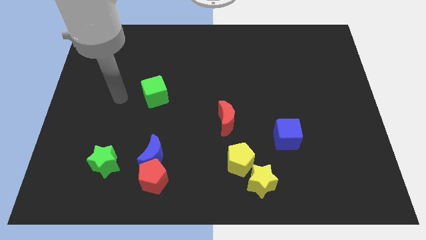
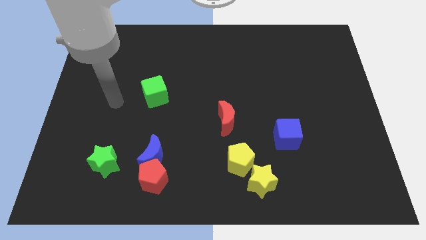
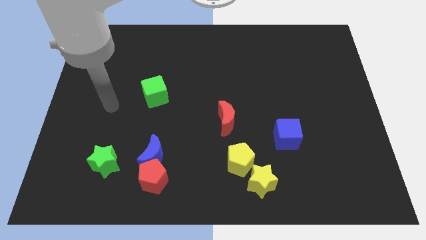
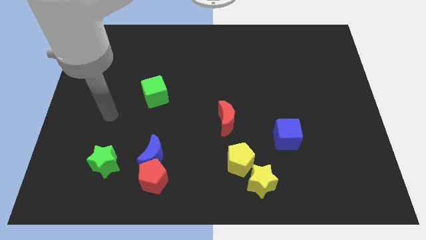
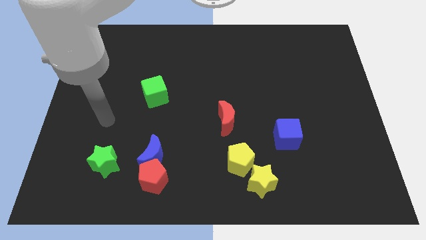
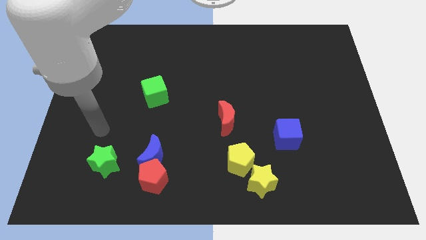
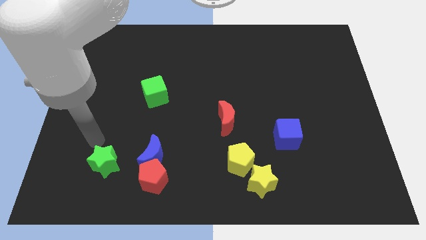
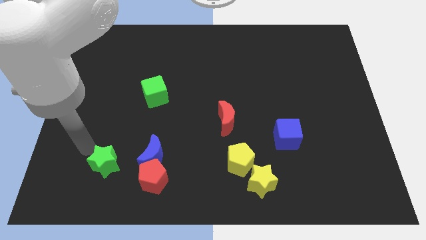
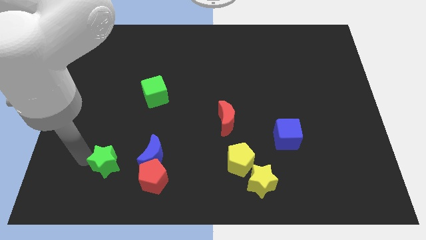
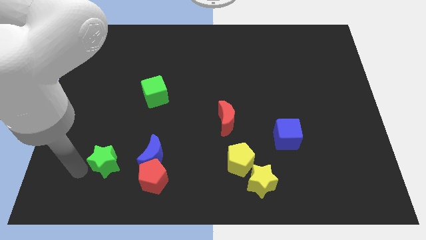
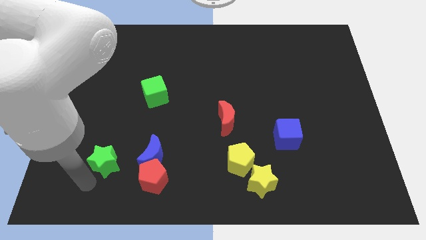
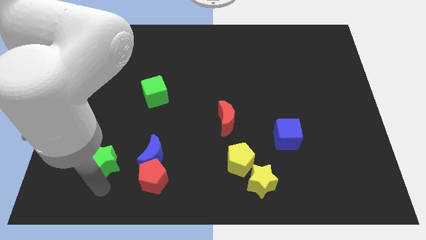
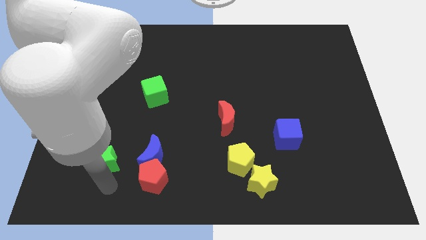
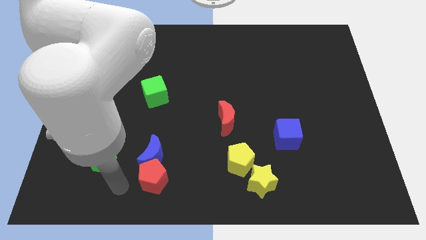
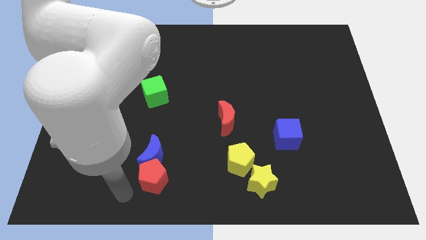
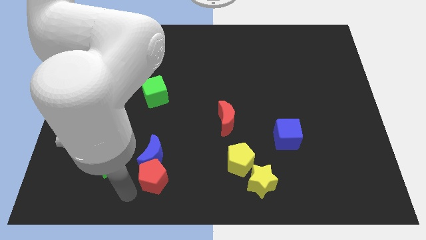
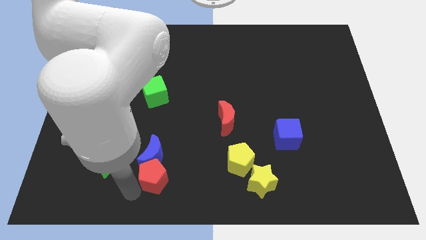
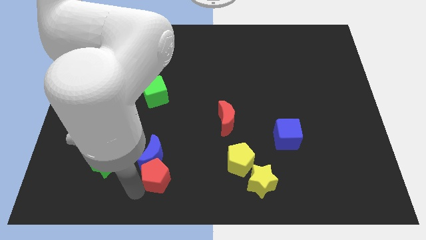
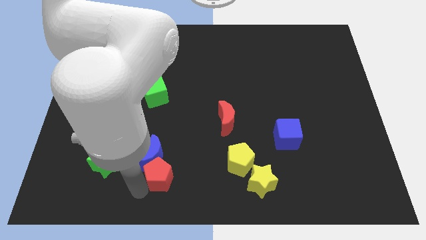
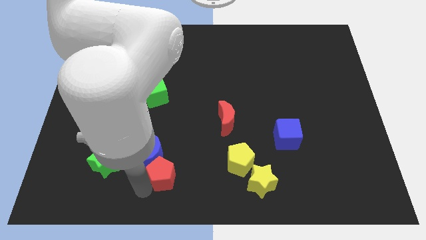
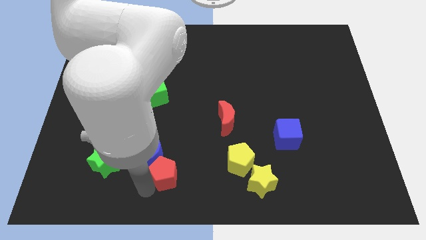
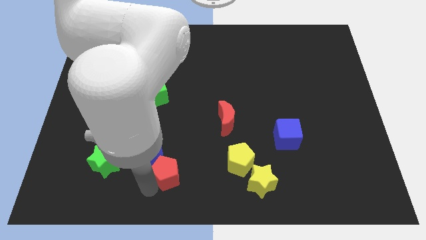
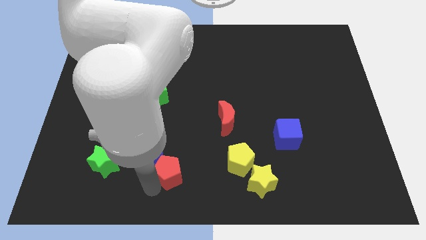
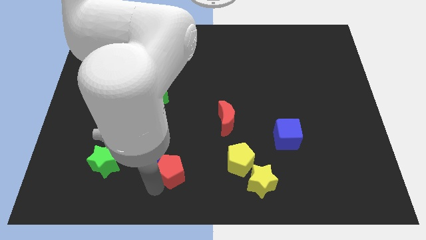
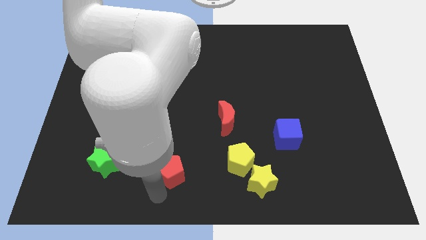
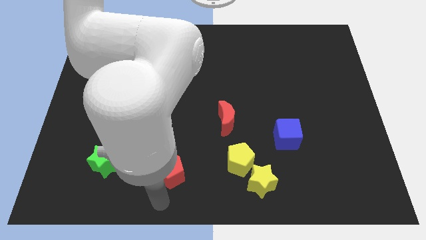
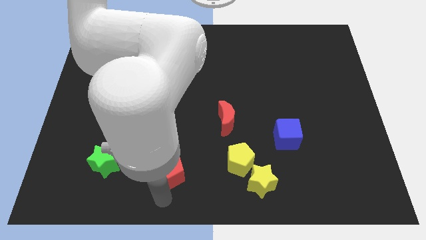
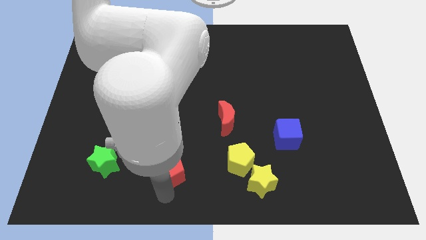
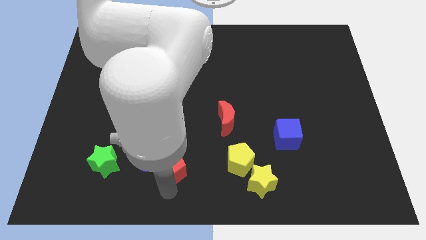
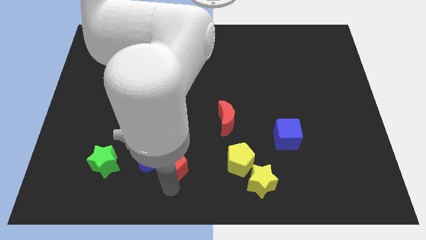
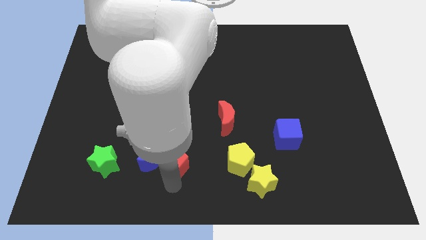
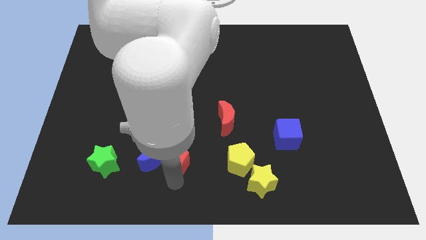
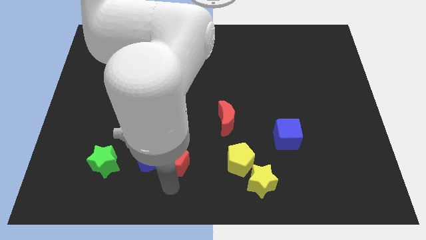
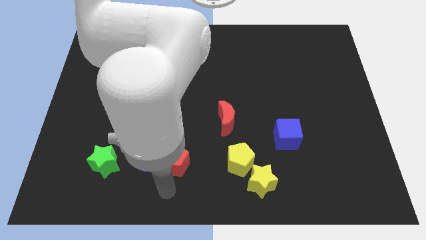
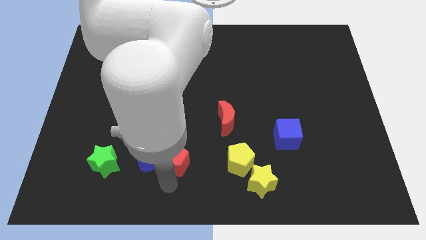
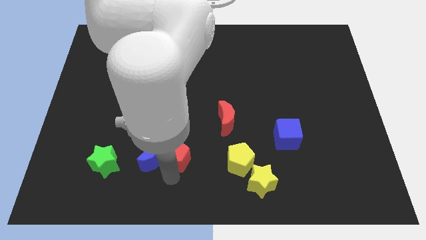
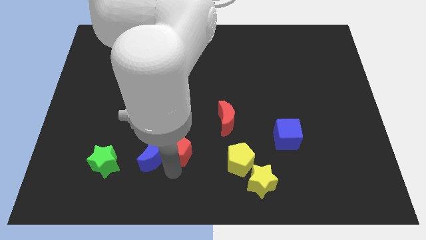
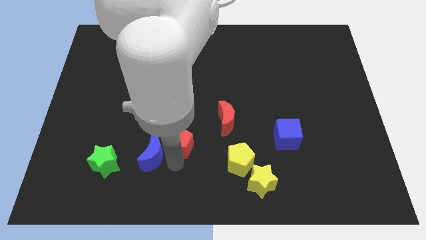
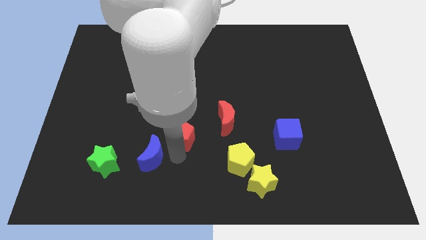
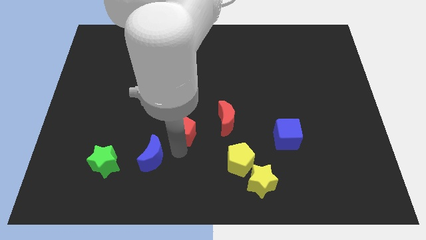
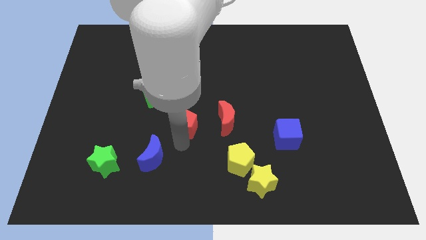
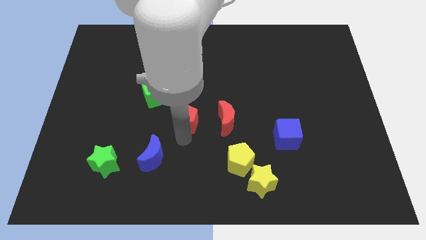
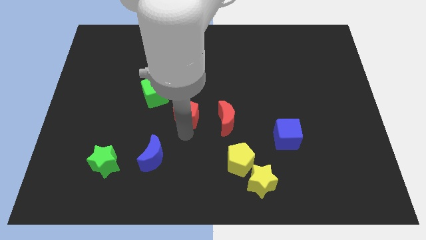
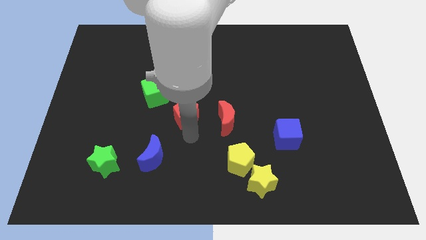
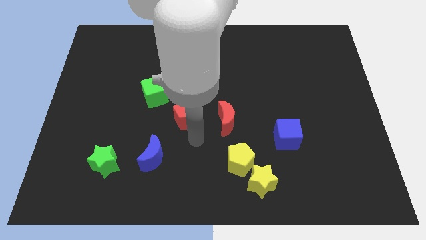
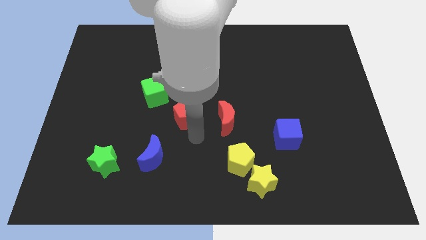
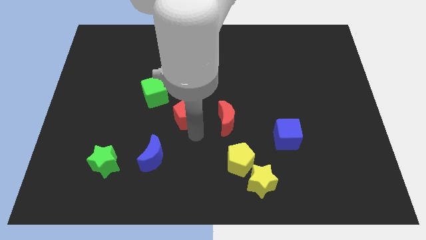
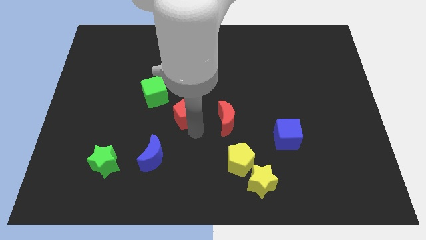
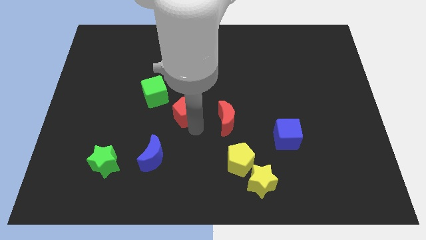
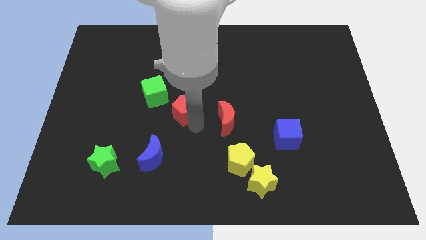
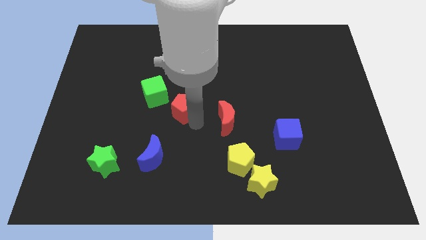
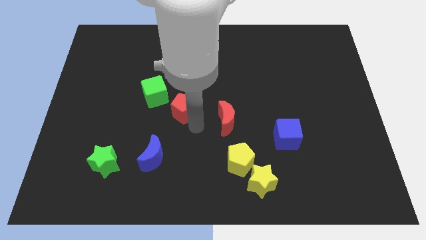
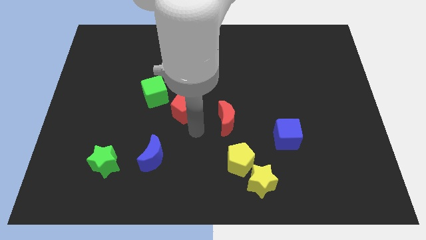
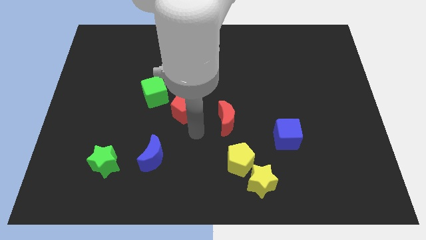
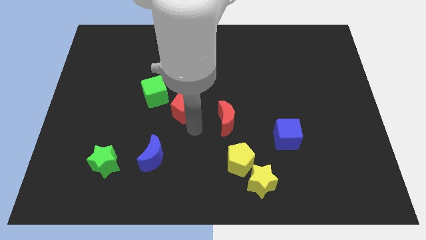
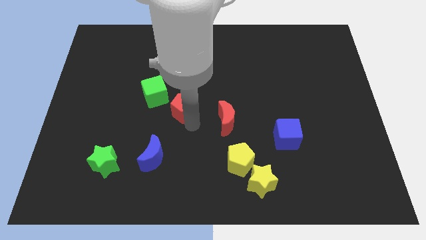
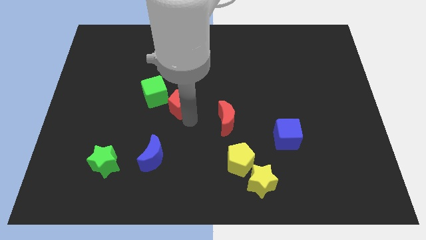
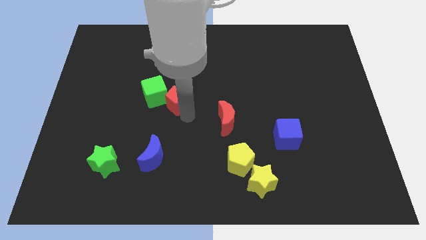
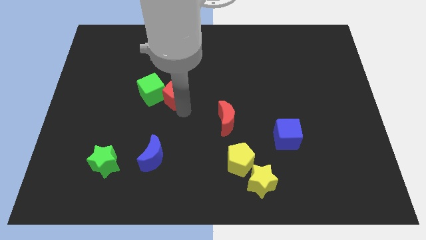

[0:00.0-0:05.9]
push the red pentagon upwards

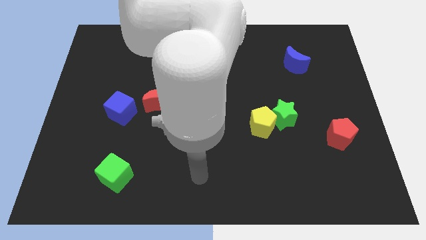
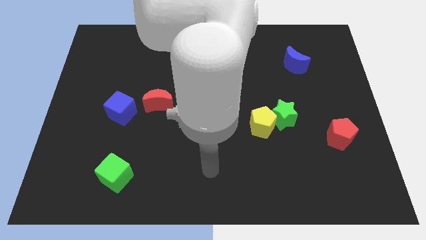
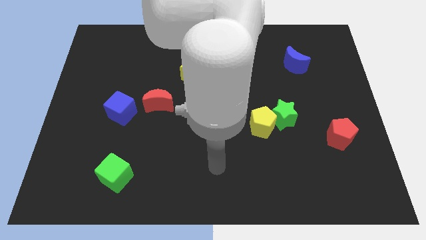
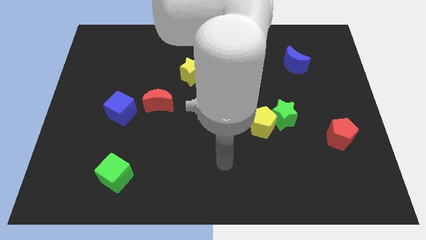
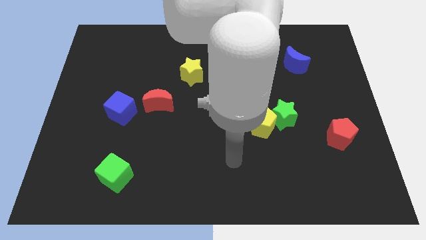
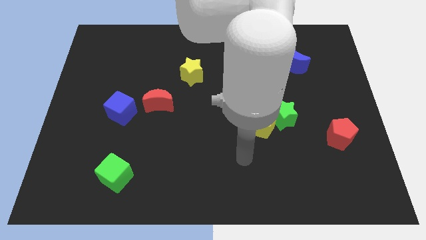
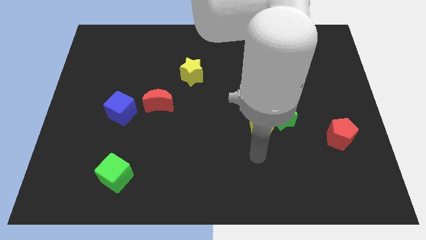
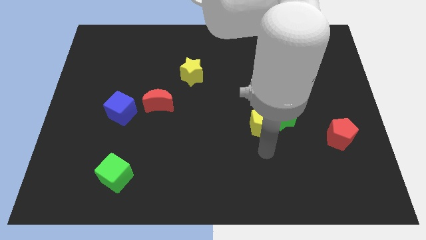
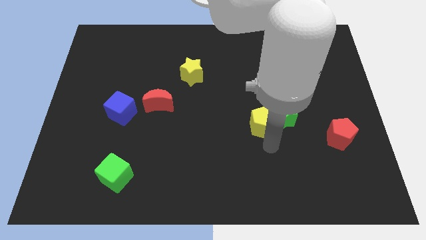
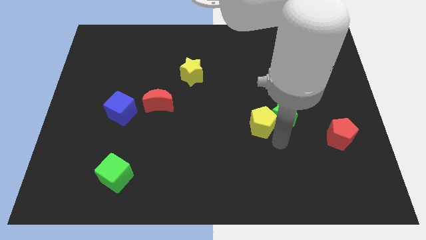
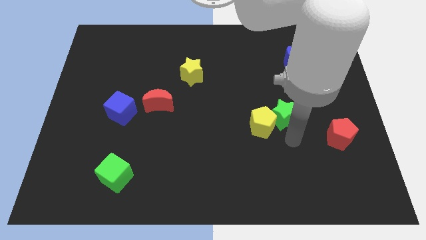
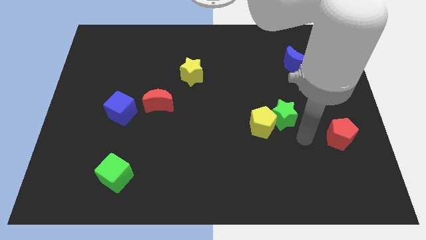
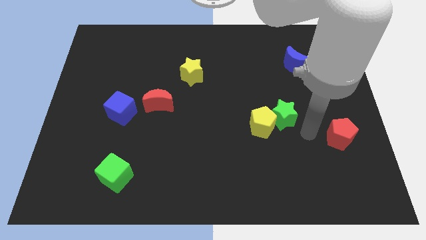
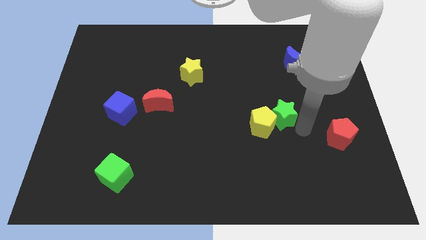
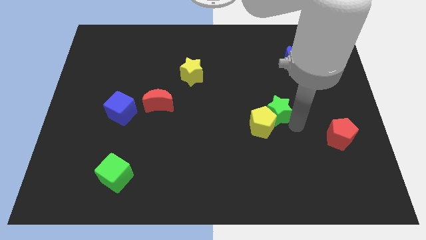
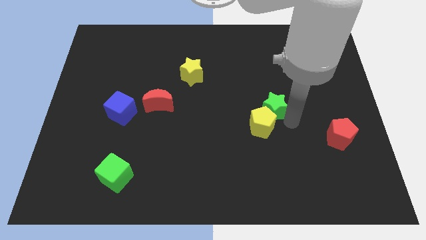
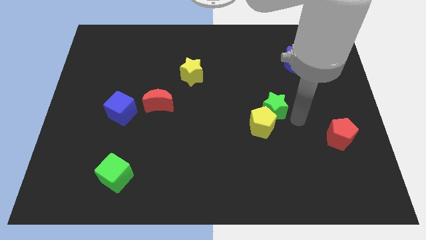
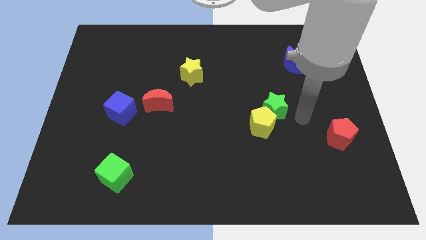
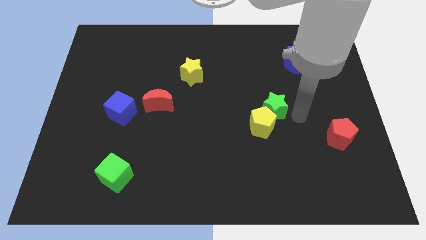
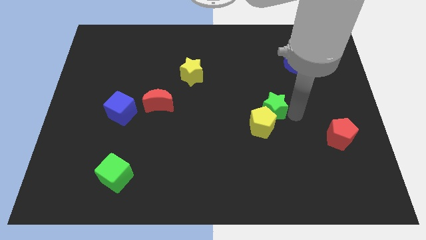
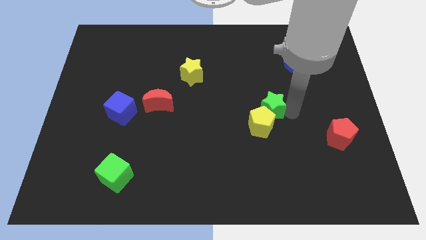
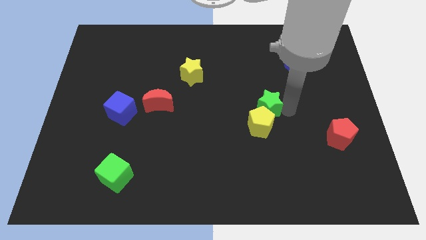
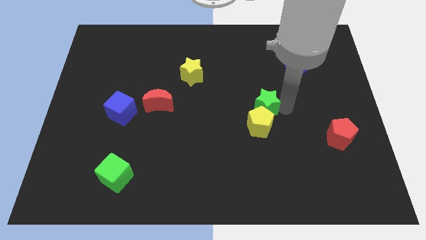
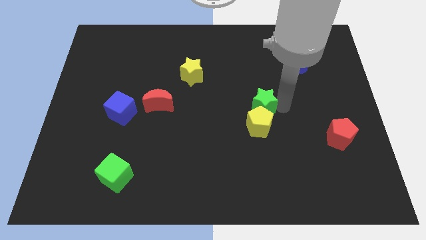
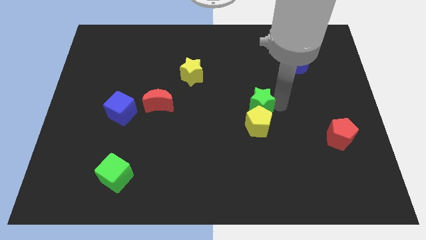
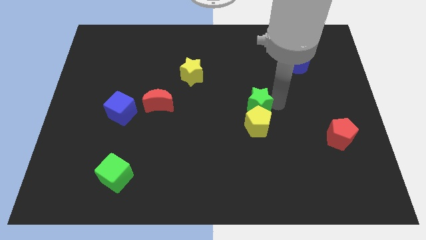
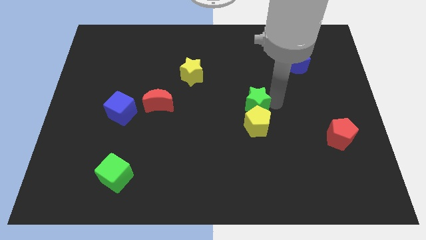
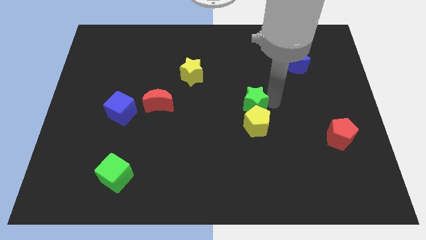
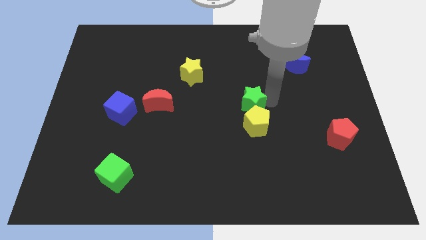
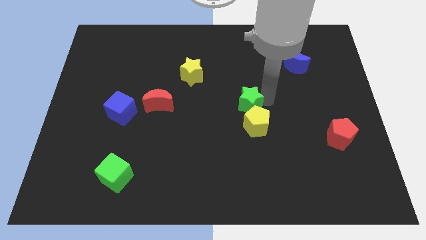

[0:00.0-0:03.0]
move the green star a little left

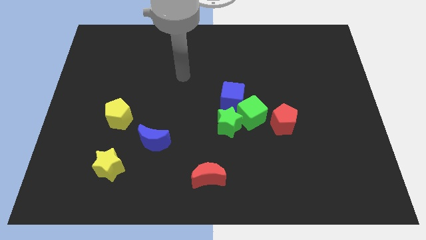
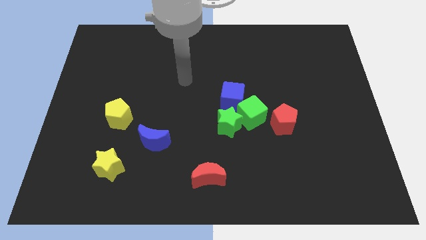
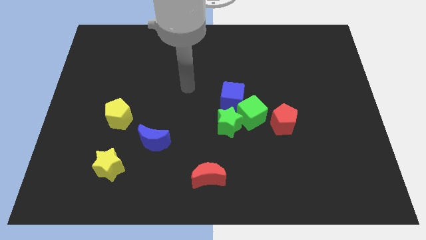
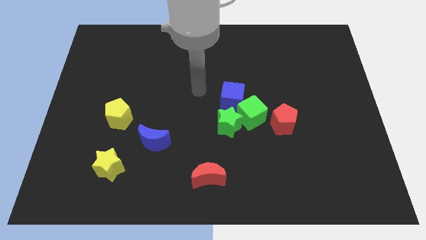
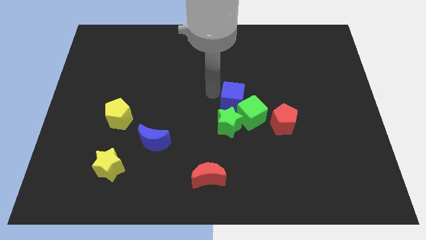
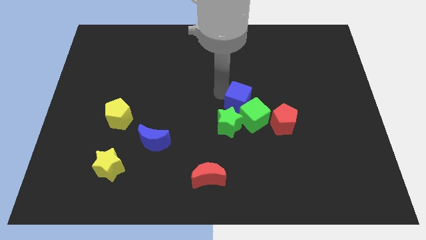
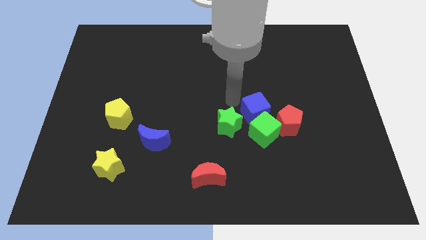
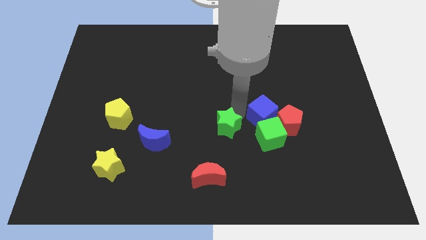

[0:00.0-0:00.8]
slightly move the green cube diagonally down and to the right
